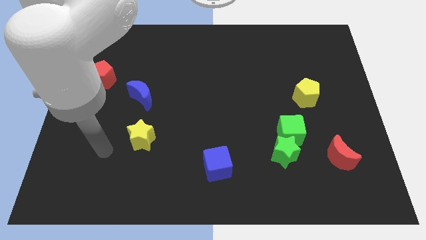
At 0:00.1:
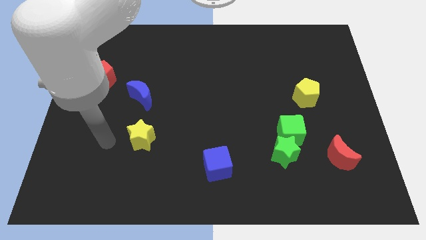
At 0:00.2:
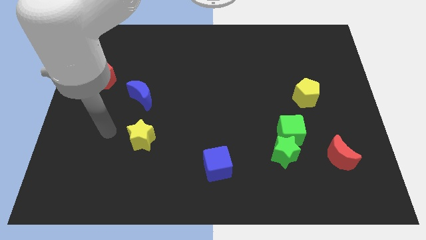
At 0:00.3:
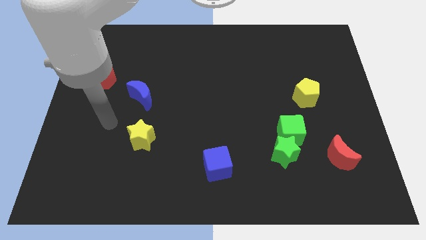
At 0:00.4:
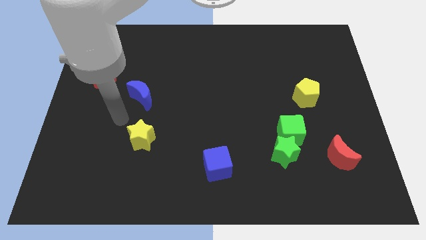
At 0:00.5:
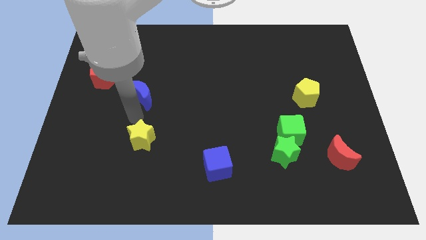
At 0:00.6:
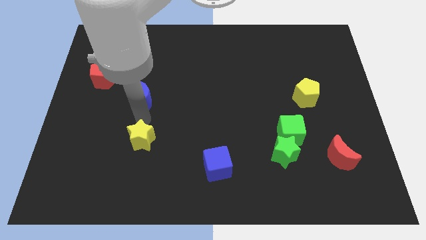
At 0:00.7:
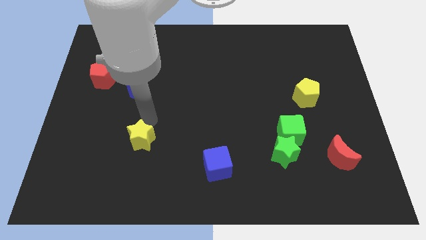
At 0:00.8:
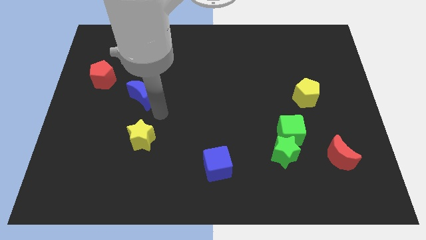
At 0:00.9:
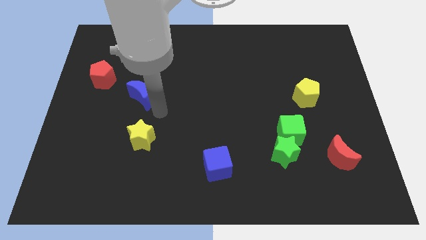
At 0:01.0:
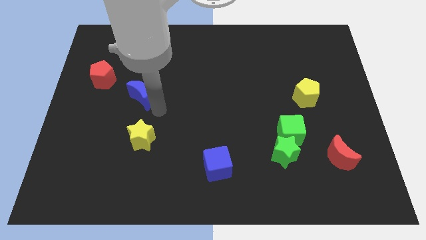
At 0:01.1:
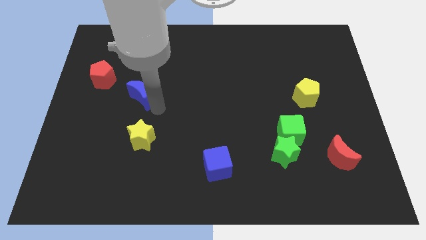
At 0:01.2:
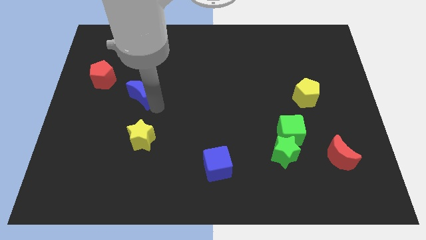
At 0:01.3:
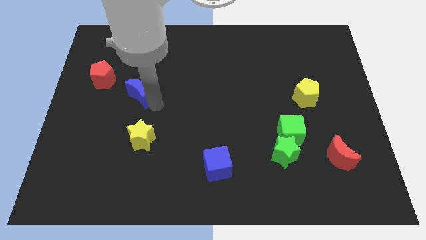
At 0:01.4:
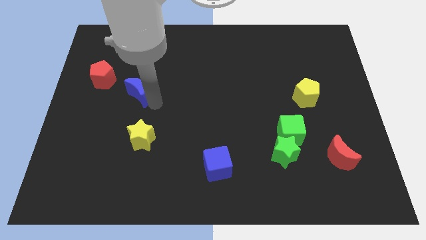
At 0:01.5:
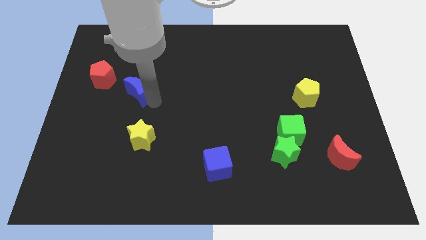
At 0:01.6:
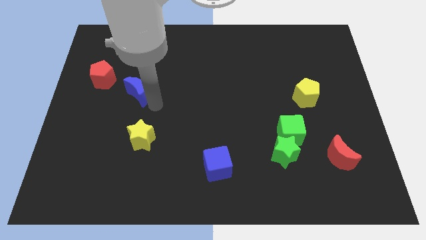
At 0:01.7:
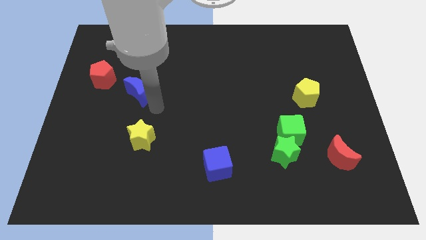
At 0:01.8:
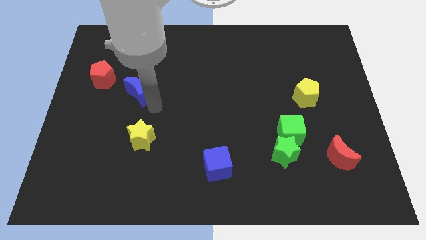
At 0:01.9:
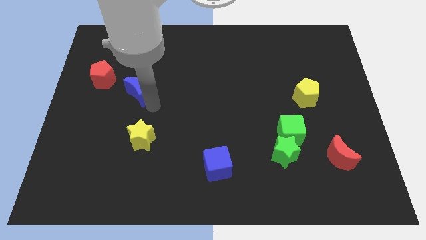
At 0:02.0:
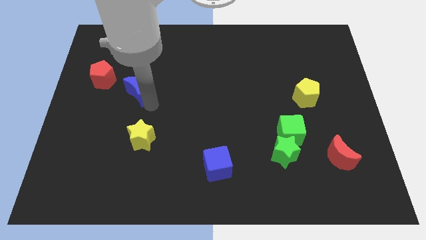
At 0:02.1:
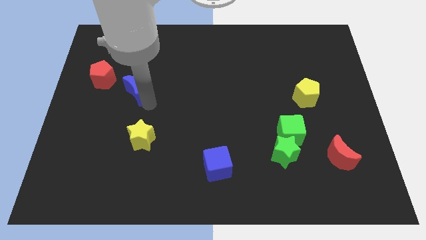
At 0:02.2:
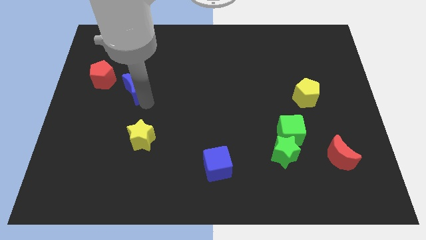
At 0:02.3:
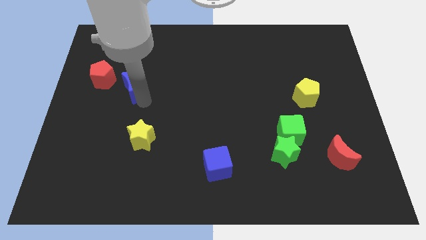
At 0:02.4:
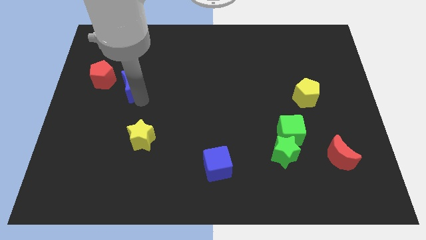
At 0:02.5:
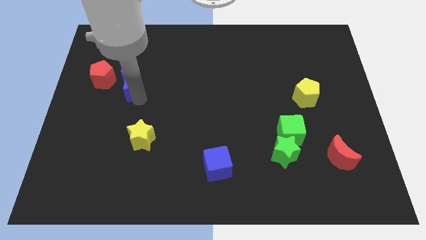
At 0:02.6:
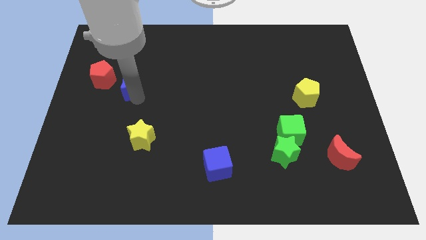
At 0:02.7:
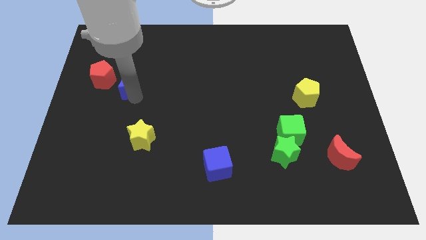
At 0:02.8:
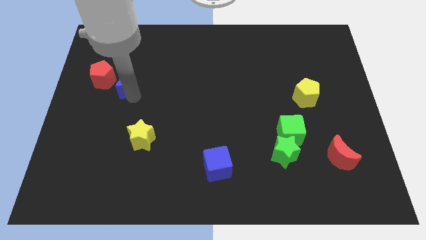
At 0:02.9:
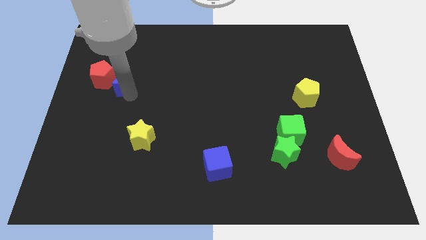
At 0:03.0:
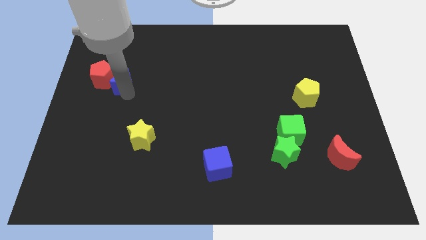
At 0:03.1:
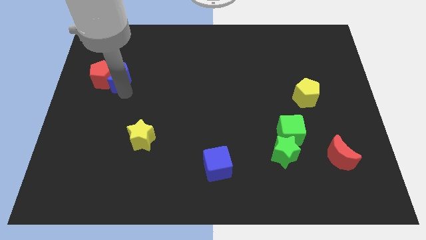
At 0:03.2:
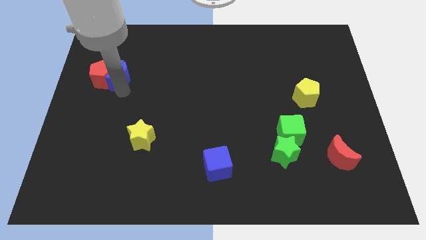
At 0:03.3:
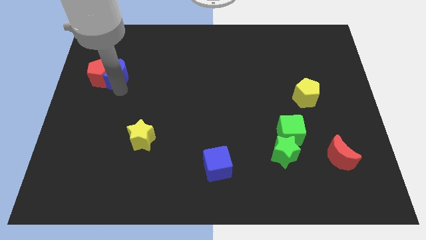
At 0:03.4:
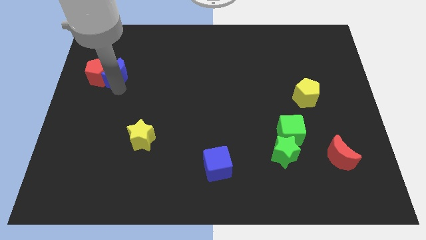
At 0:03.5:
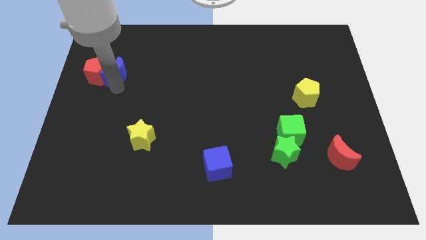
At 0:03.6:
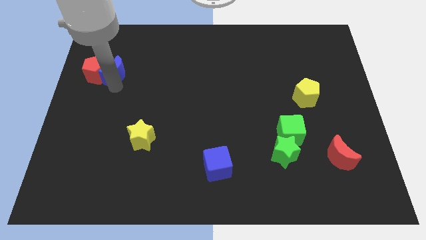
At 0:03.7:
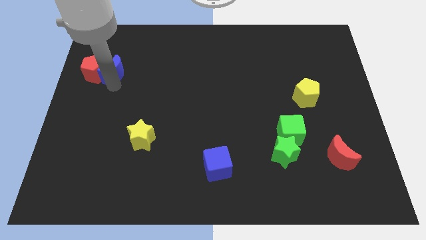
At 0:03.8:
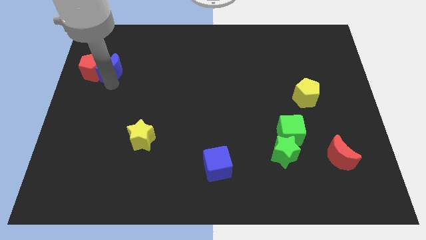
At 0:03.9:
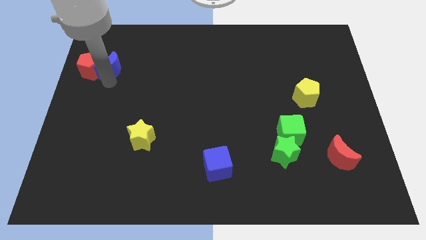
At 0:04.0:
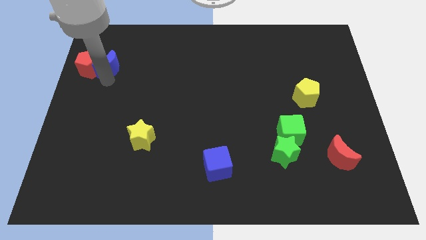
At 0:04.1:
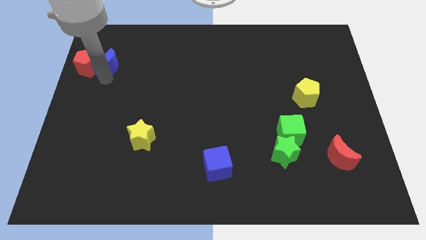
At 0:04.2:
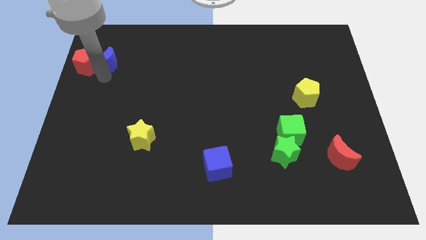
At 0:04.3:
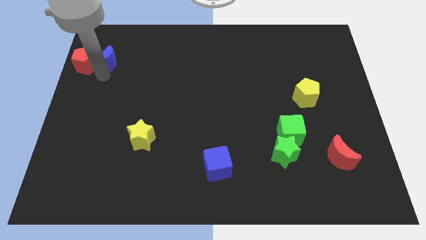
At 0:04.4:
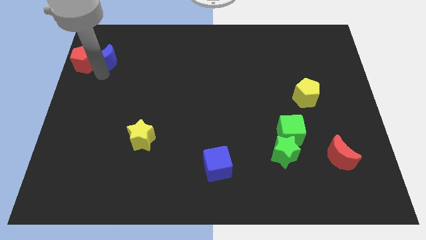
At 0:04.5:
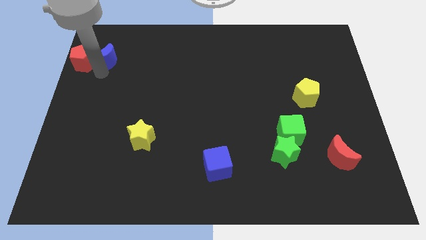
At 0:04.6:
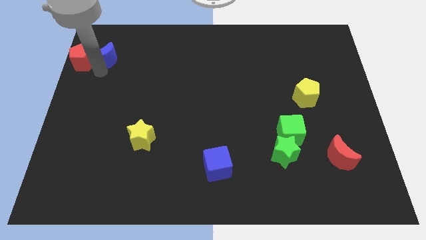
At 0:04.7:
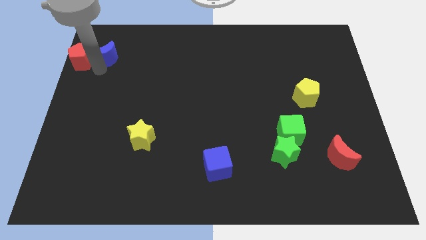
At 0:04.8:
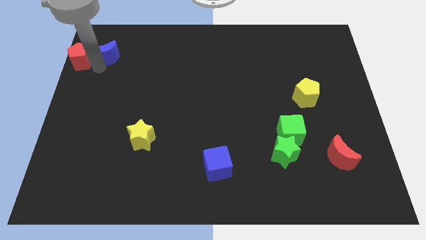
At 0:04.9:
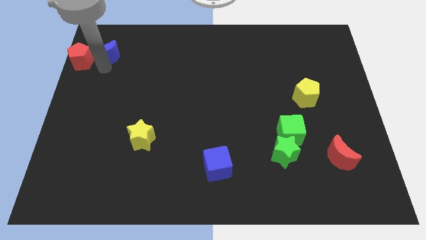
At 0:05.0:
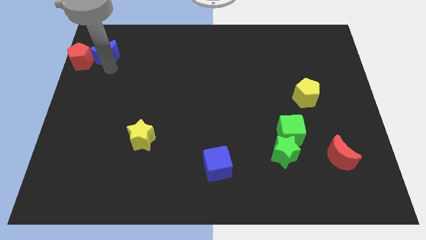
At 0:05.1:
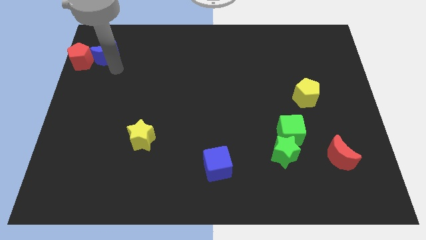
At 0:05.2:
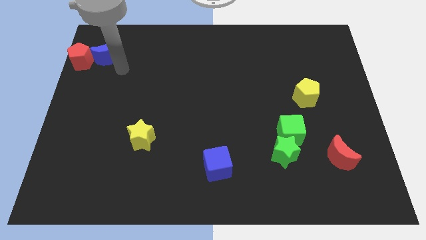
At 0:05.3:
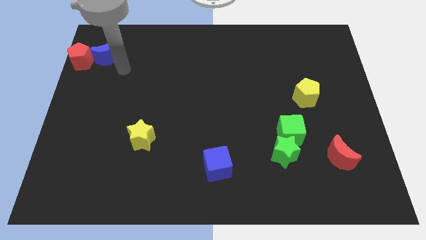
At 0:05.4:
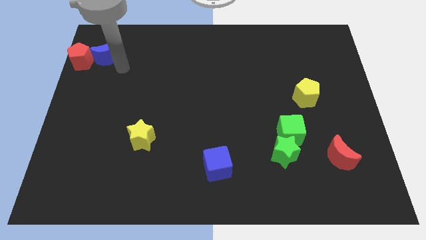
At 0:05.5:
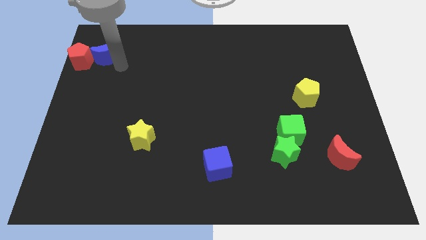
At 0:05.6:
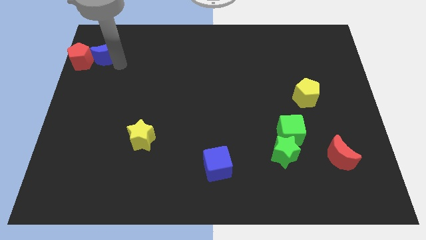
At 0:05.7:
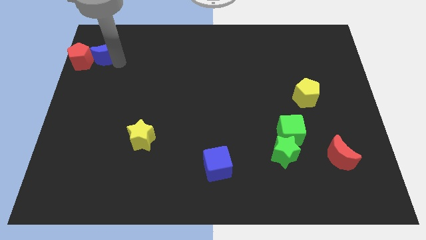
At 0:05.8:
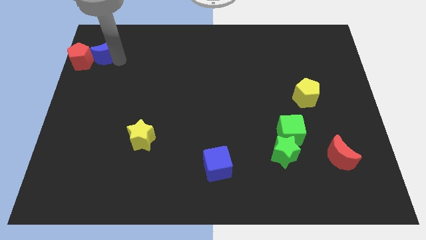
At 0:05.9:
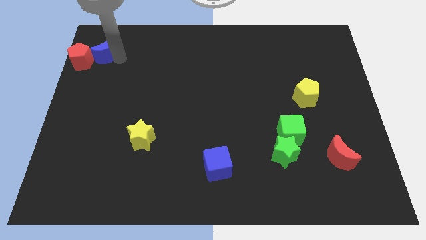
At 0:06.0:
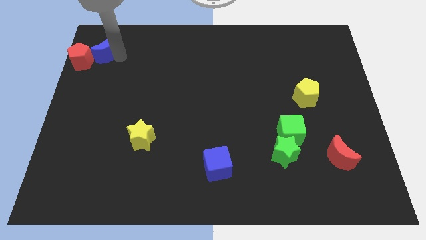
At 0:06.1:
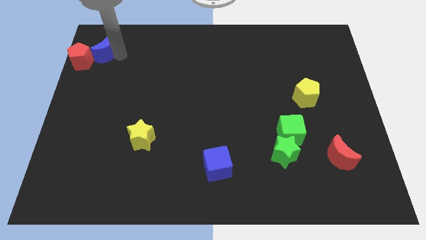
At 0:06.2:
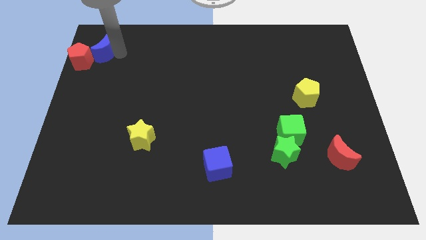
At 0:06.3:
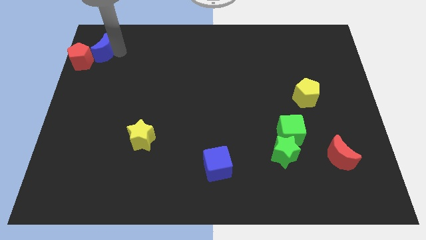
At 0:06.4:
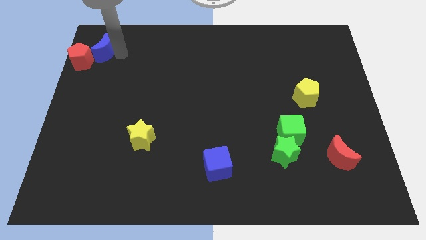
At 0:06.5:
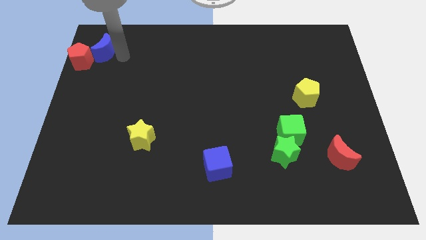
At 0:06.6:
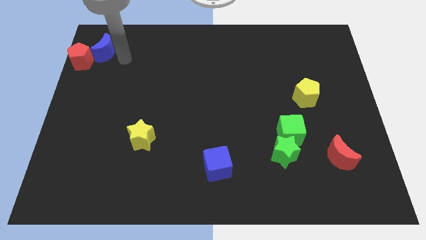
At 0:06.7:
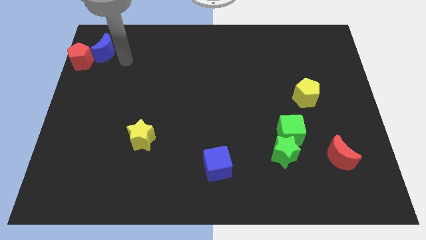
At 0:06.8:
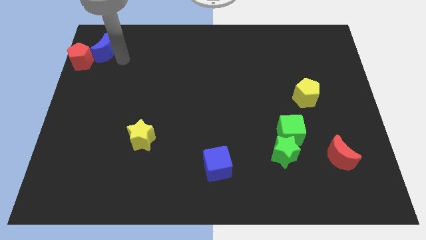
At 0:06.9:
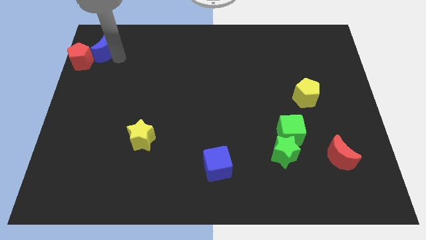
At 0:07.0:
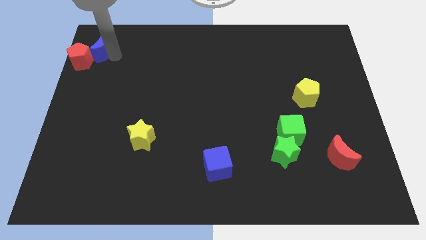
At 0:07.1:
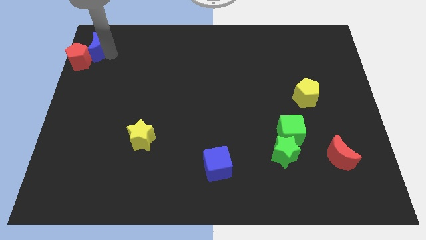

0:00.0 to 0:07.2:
push the blue moon to the top left of the board

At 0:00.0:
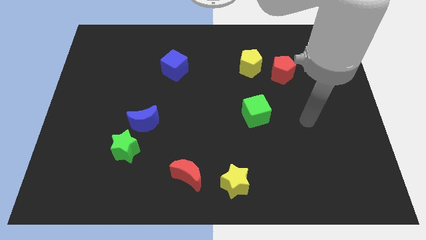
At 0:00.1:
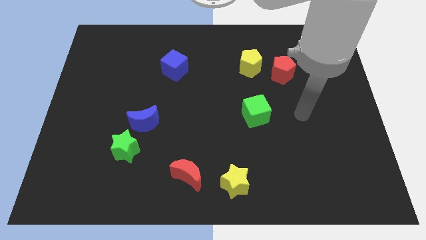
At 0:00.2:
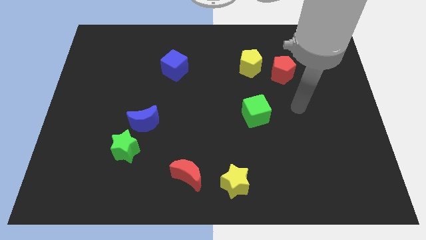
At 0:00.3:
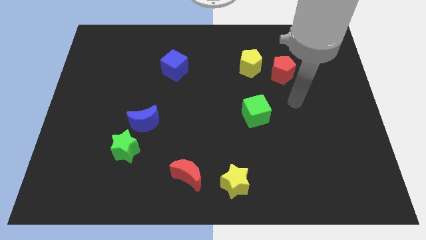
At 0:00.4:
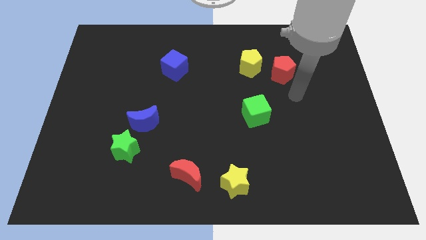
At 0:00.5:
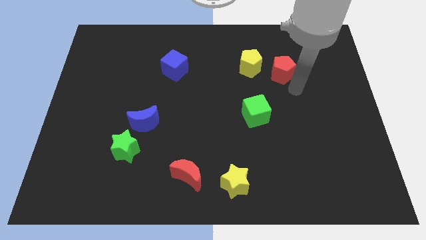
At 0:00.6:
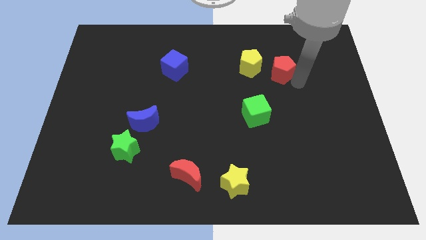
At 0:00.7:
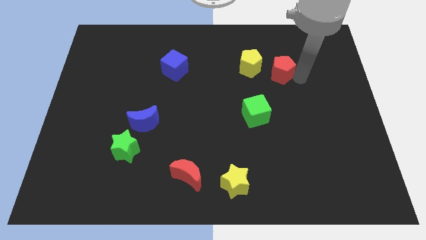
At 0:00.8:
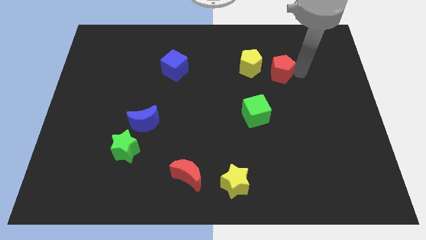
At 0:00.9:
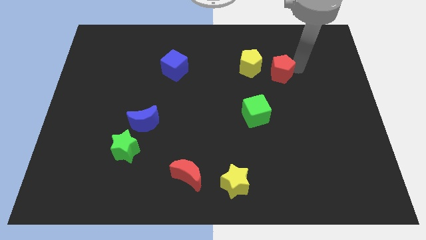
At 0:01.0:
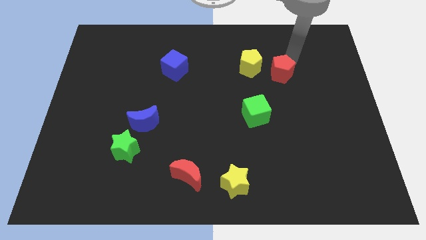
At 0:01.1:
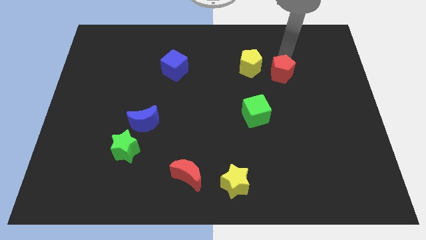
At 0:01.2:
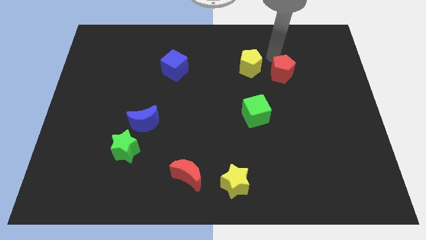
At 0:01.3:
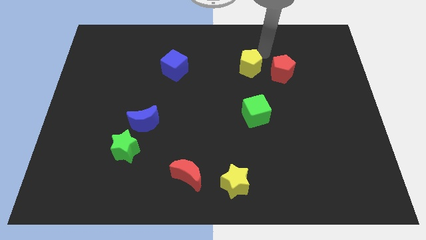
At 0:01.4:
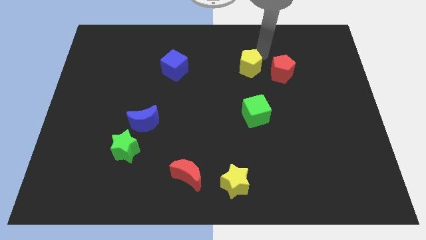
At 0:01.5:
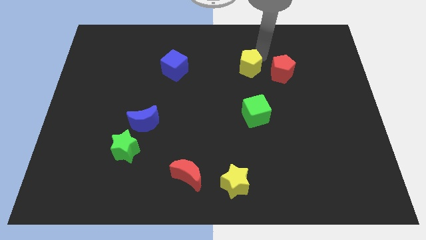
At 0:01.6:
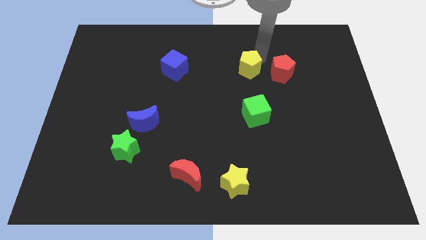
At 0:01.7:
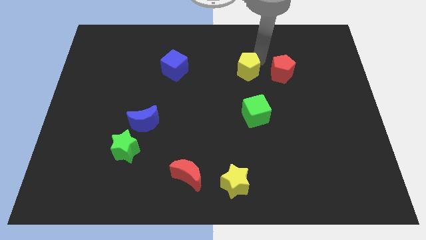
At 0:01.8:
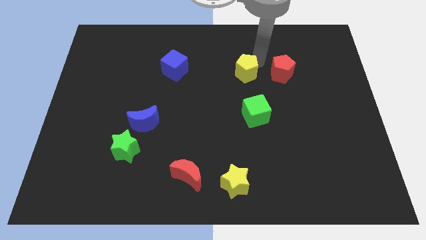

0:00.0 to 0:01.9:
move the yellow pentagon to the center of the board

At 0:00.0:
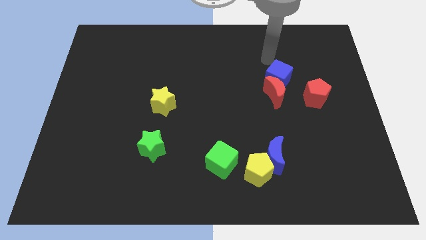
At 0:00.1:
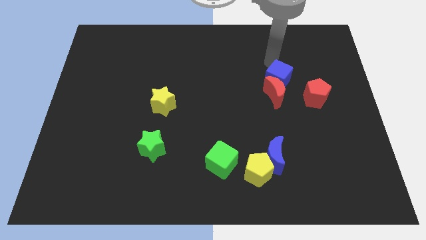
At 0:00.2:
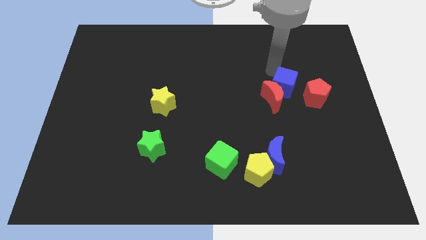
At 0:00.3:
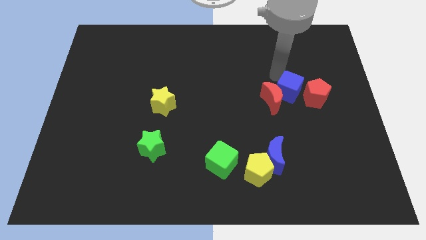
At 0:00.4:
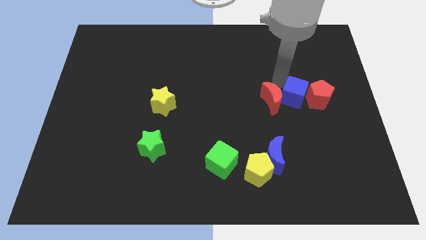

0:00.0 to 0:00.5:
put the red pentagon to the center right
